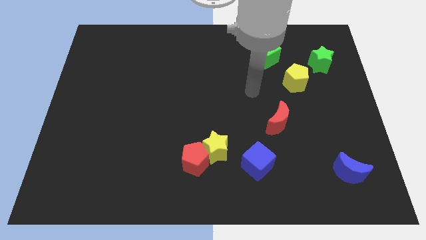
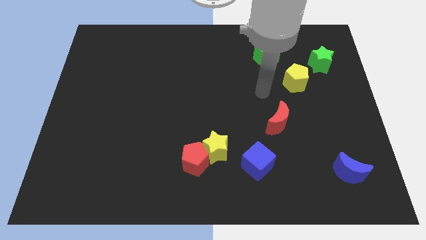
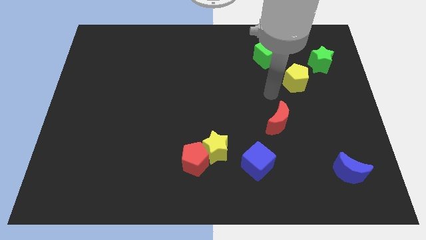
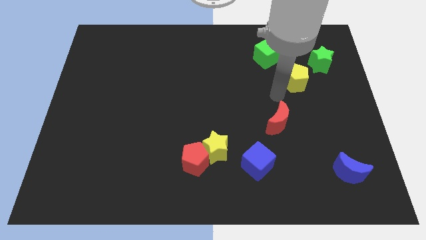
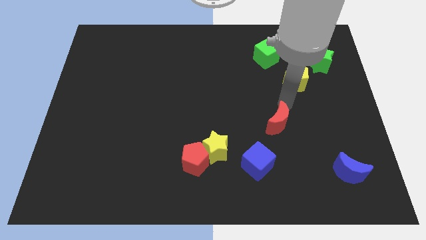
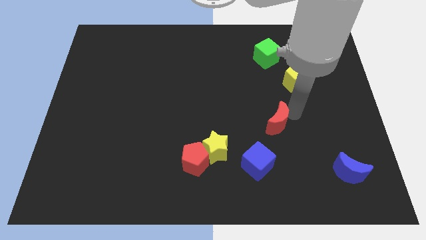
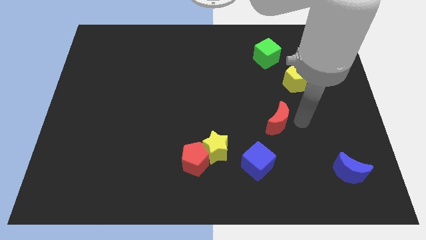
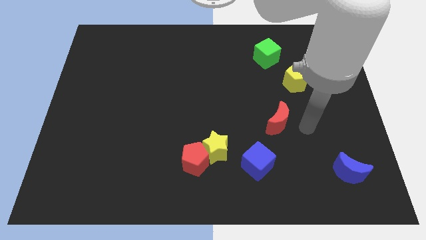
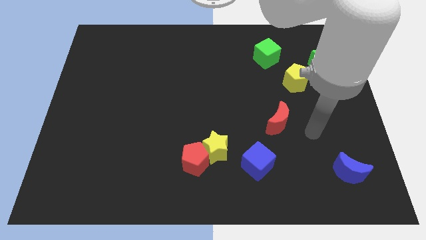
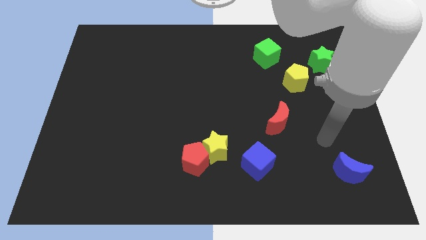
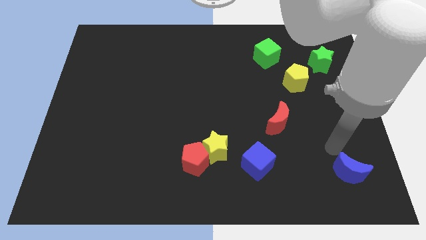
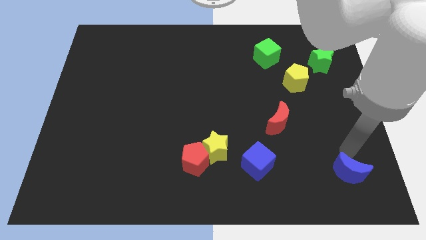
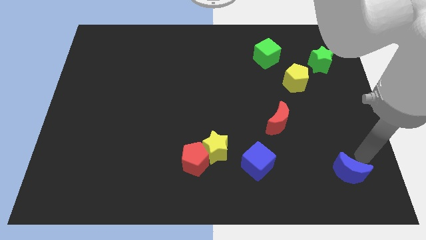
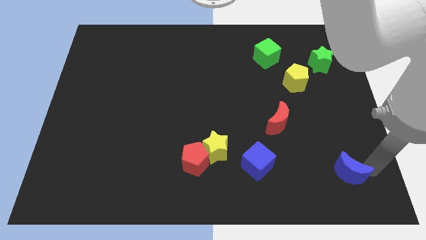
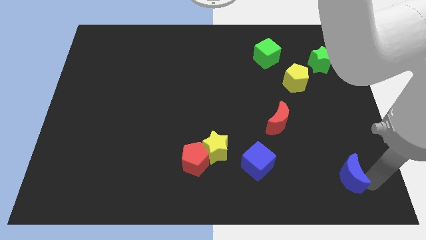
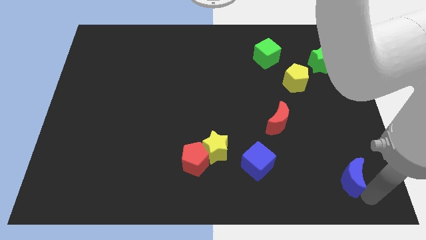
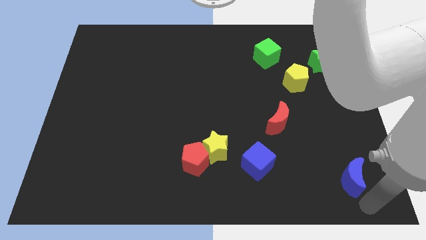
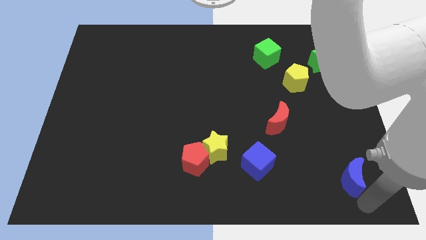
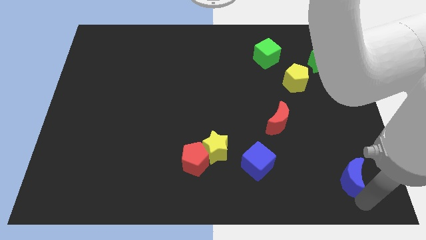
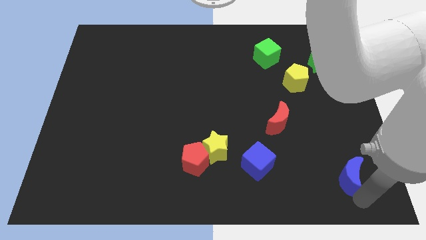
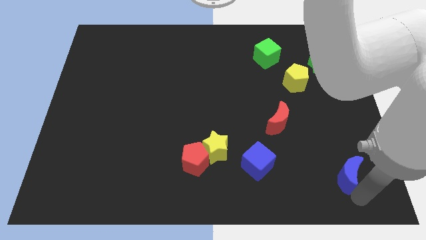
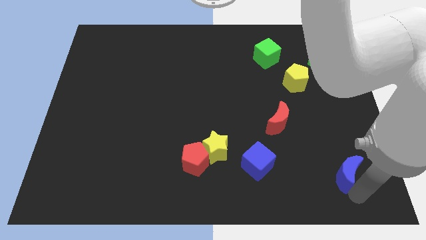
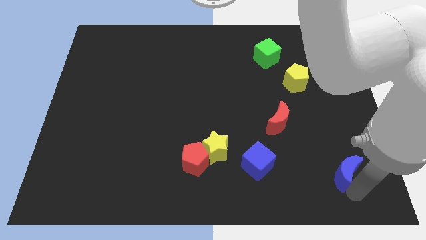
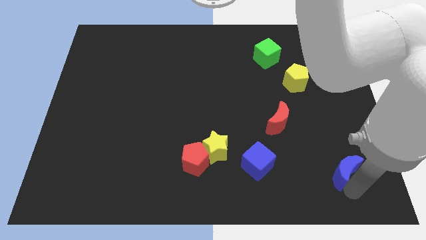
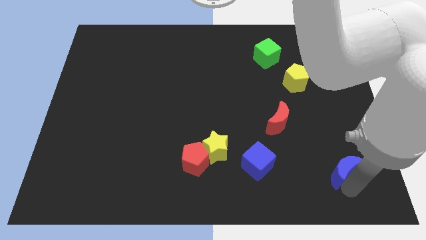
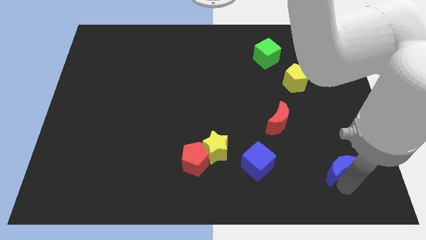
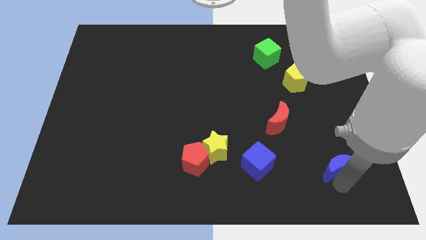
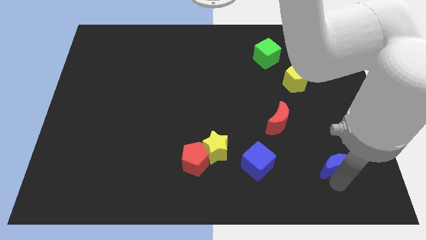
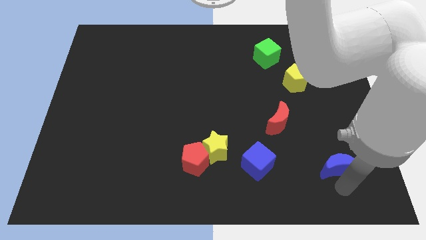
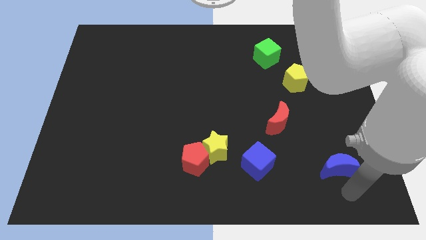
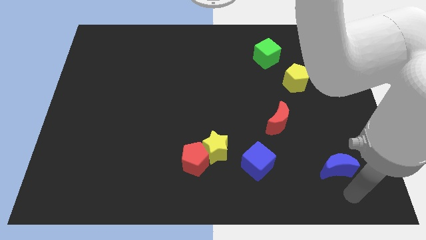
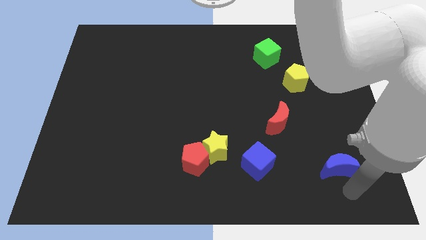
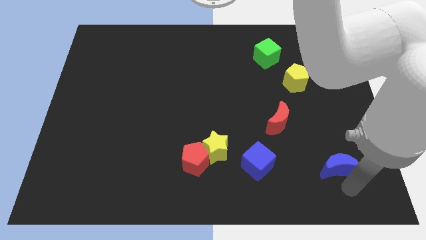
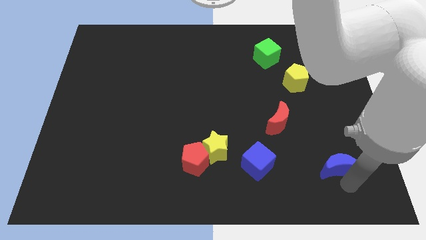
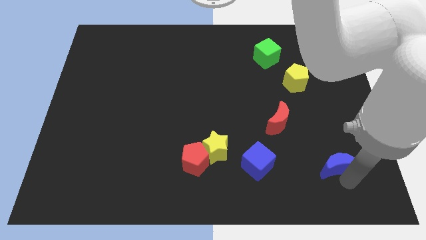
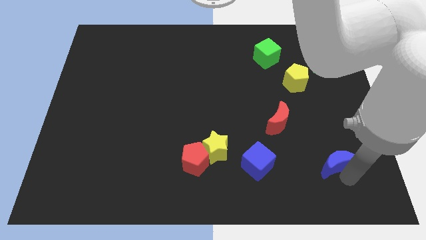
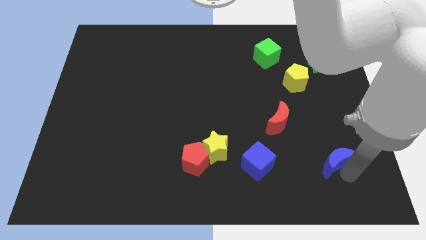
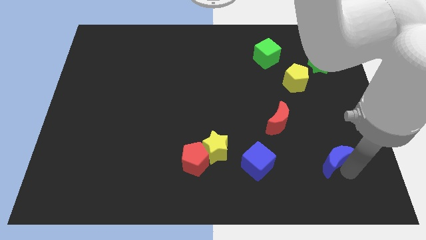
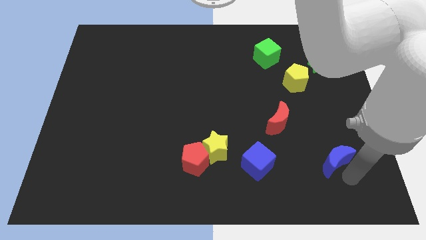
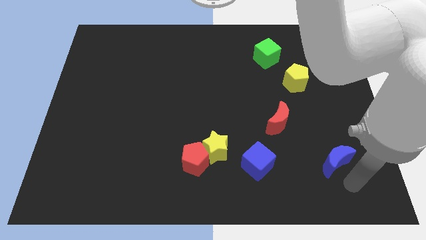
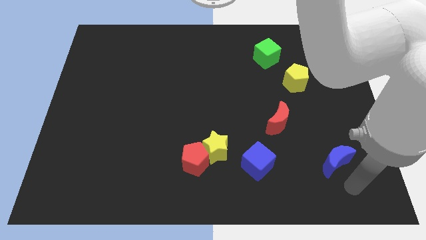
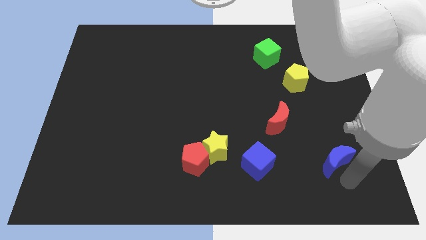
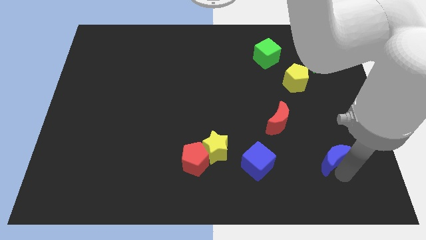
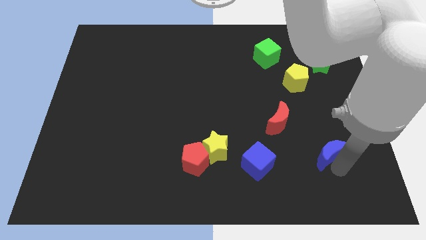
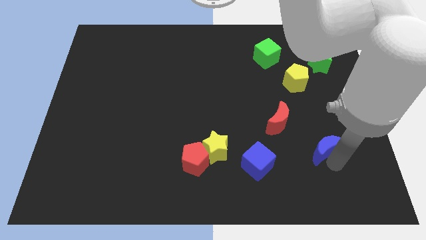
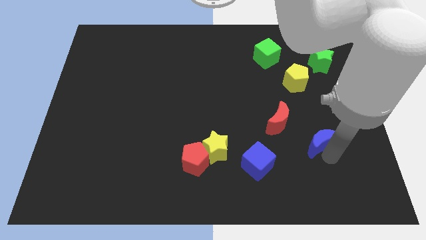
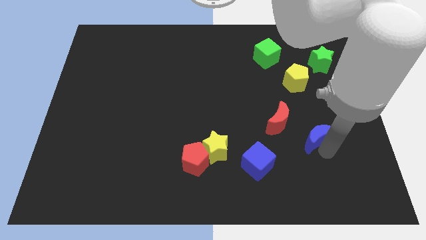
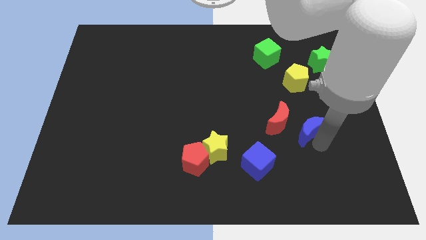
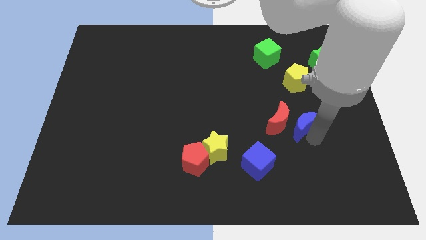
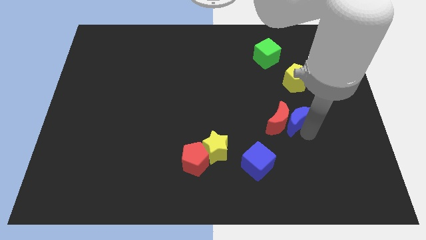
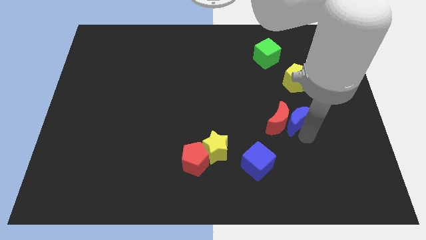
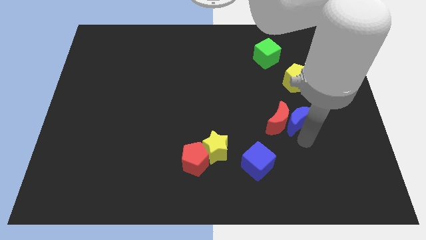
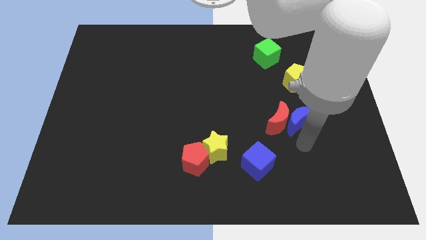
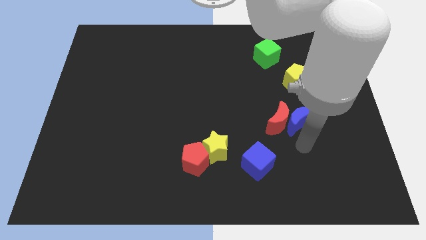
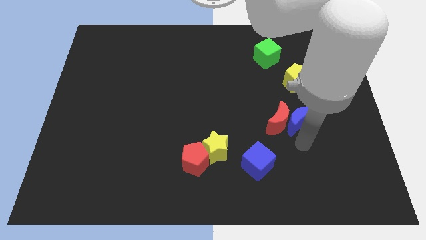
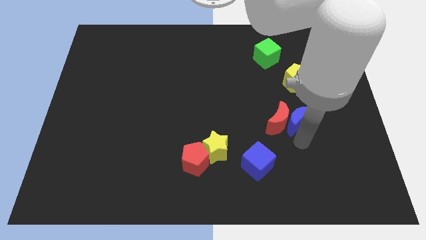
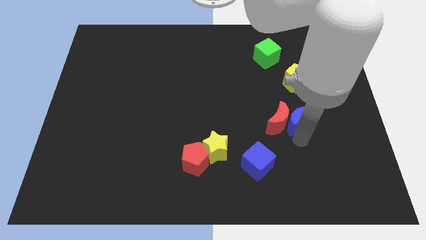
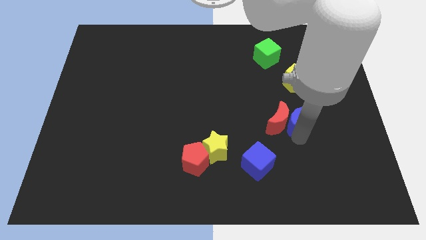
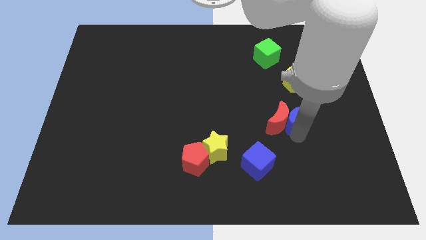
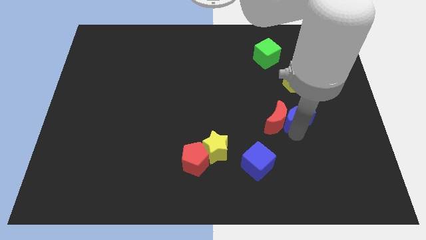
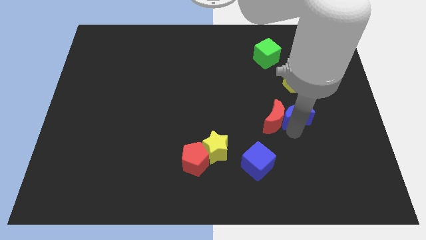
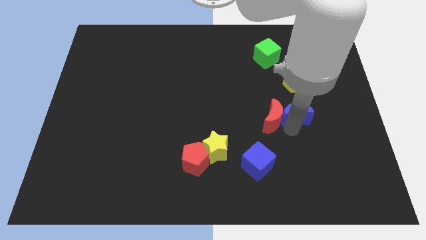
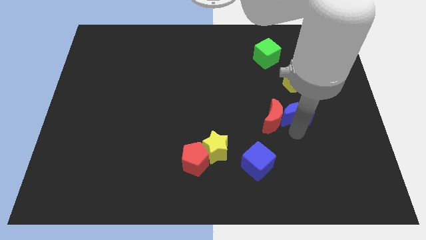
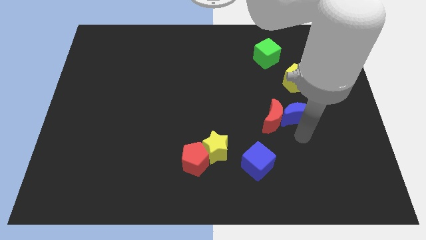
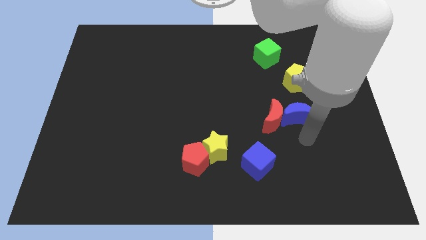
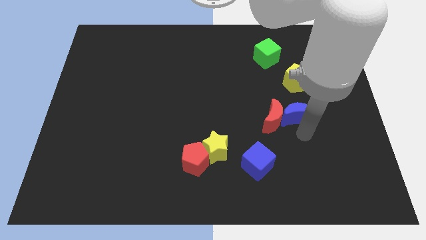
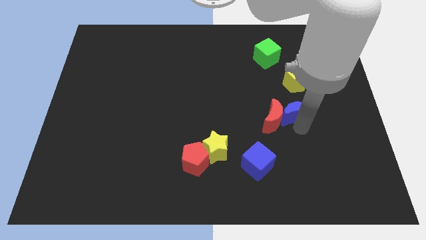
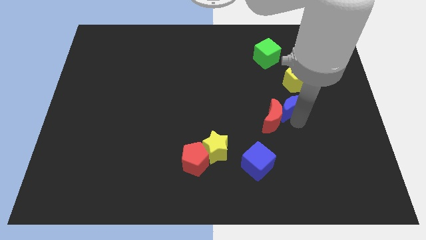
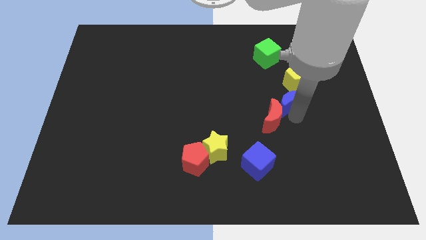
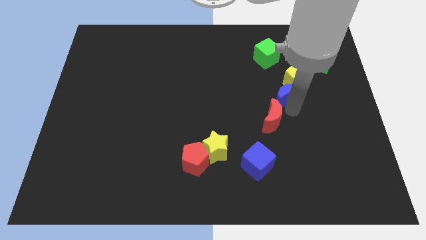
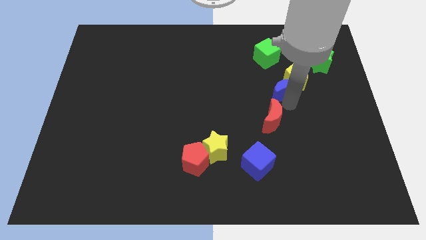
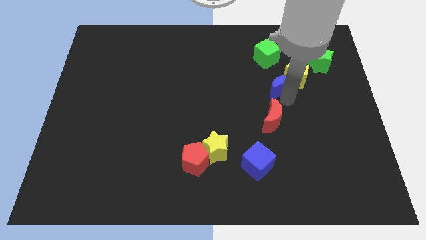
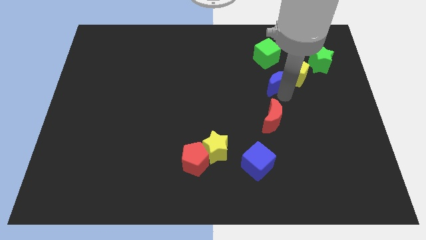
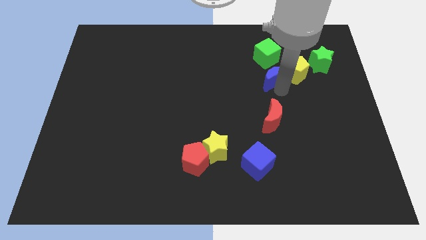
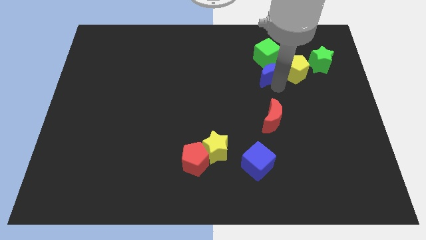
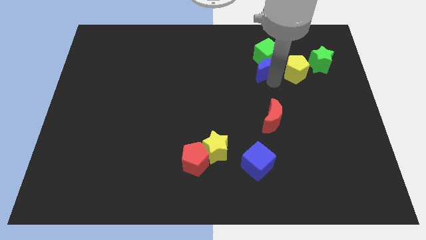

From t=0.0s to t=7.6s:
move the blue moon next to the green cube

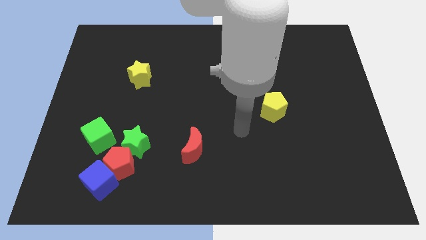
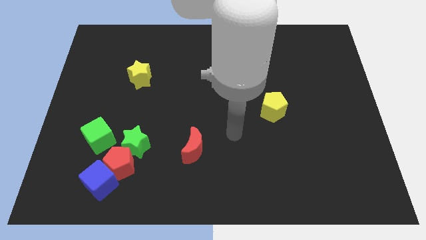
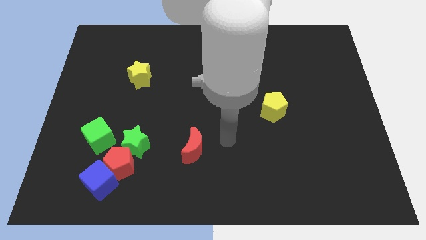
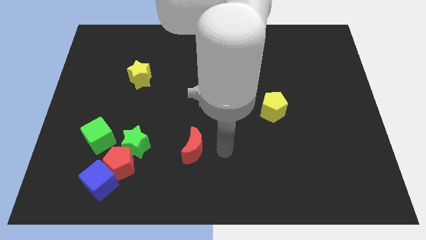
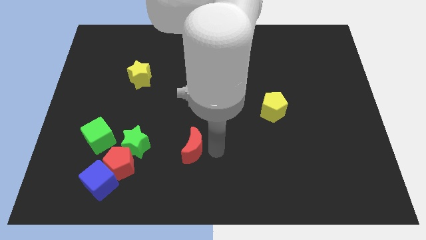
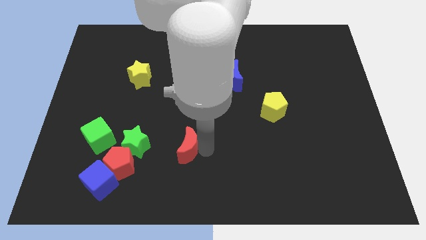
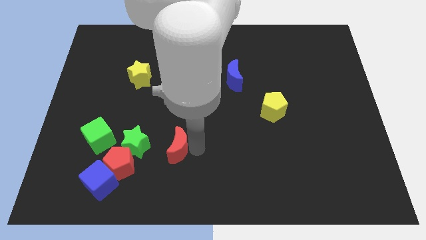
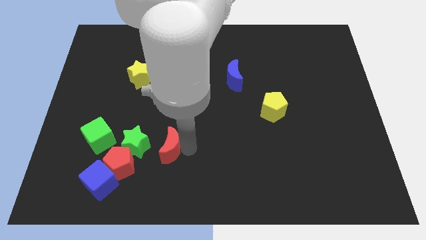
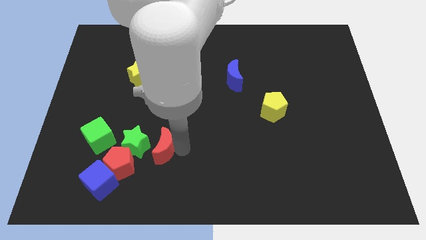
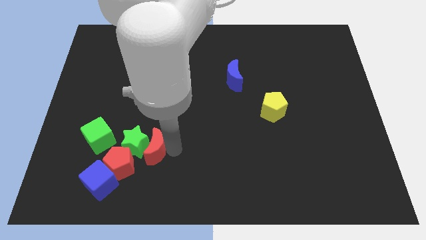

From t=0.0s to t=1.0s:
push the red moon to the green star
